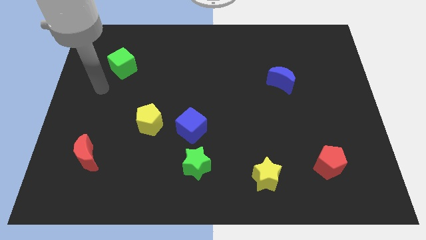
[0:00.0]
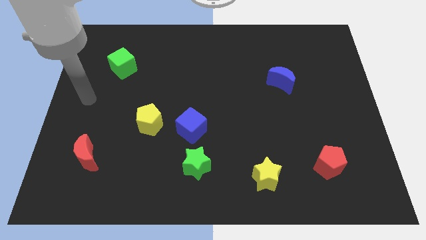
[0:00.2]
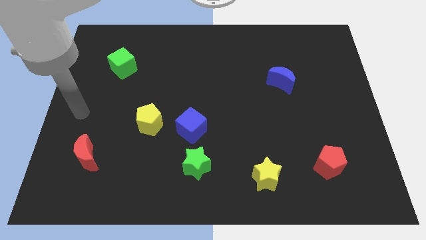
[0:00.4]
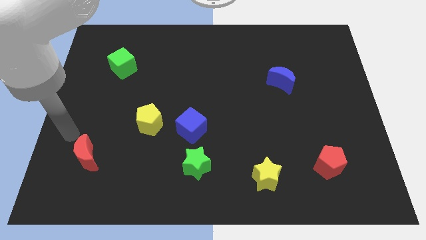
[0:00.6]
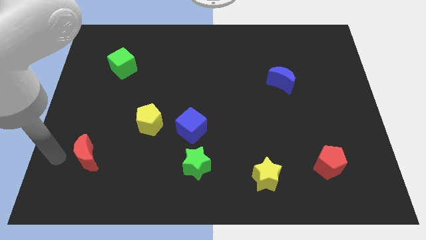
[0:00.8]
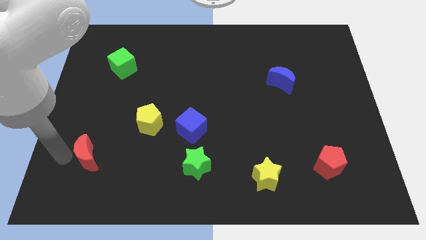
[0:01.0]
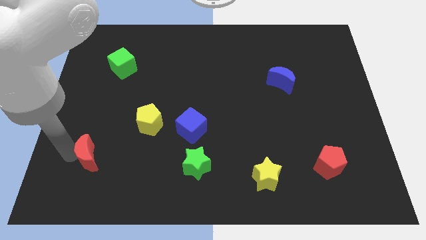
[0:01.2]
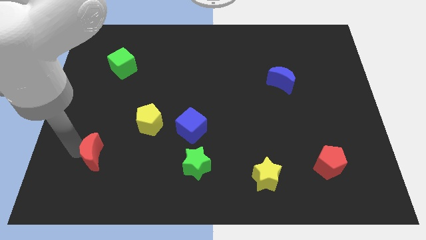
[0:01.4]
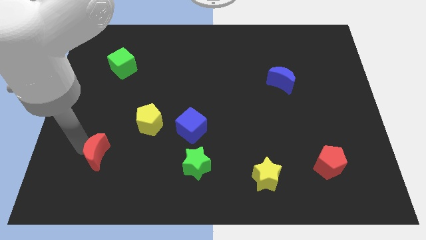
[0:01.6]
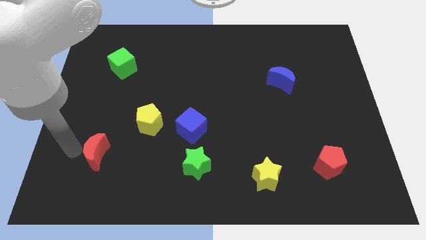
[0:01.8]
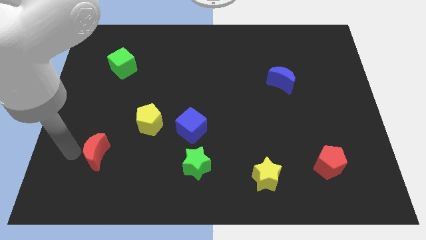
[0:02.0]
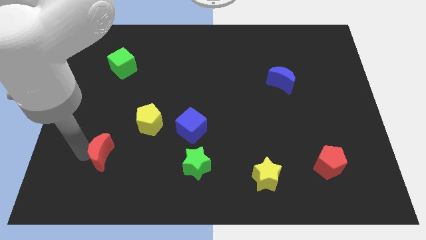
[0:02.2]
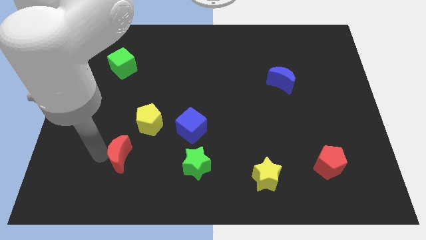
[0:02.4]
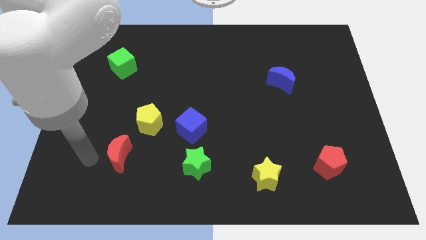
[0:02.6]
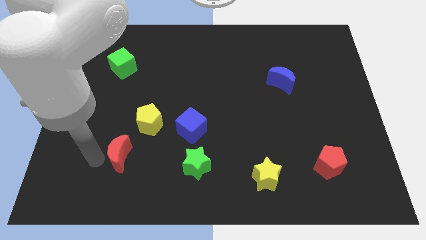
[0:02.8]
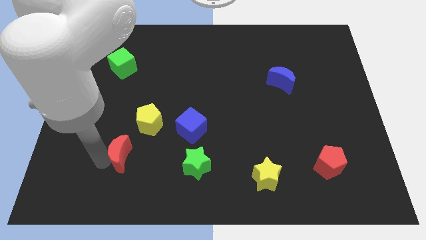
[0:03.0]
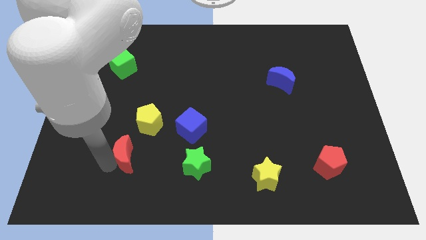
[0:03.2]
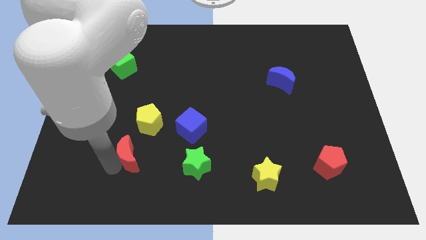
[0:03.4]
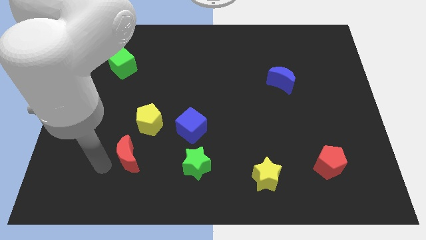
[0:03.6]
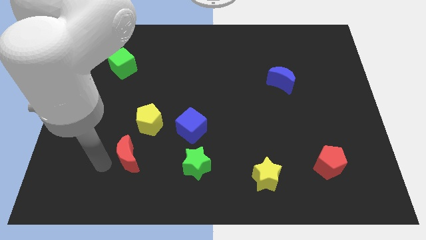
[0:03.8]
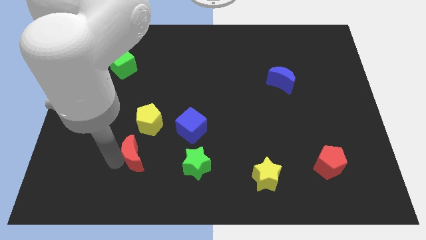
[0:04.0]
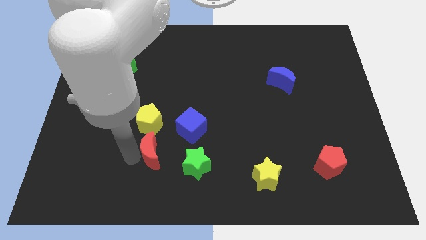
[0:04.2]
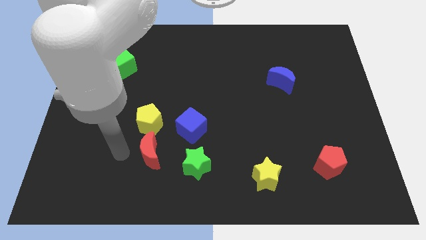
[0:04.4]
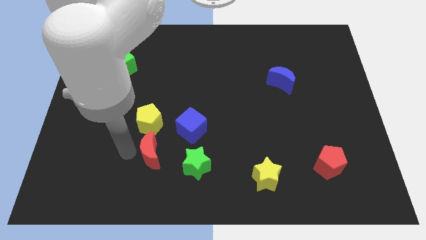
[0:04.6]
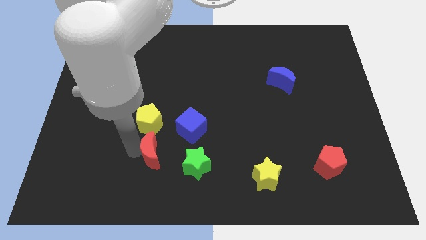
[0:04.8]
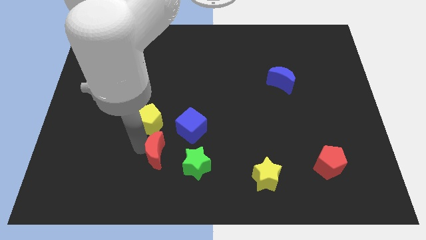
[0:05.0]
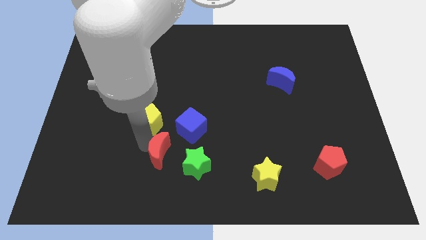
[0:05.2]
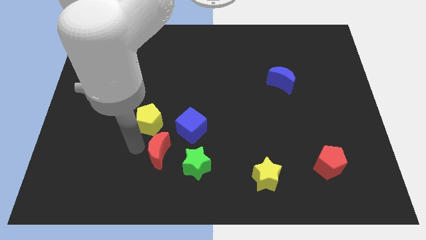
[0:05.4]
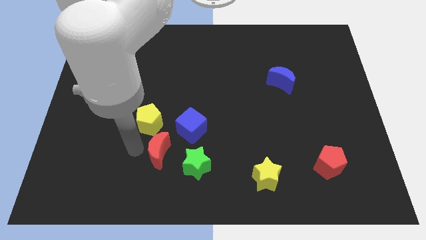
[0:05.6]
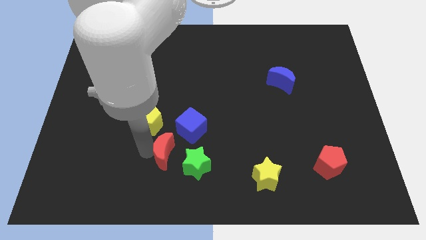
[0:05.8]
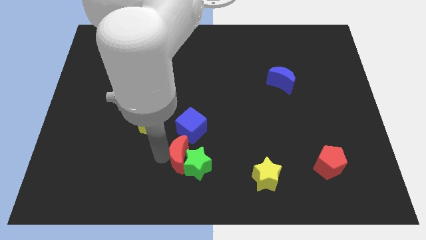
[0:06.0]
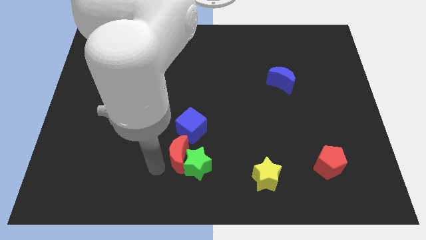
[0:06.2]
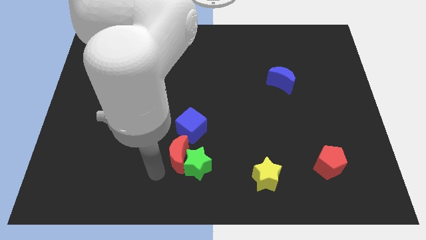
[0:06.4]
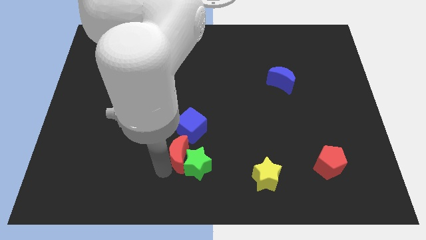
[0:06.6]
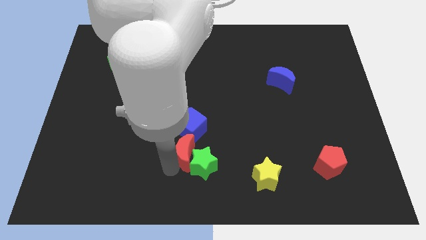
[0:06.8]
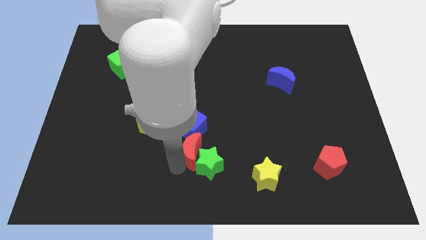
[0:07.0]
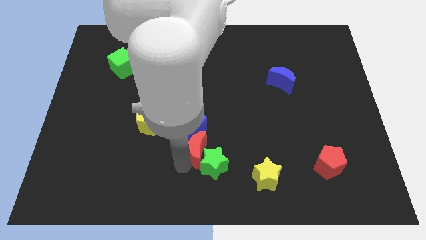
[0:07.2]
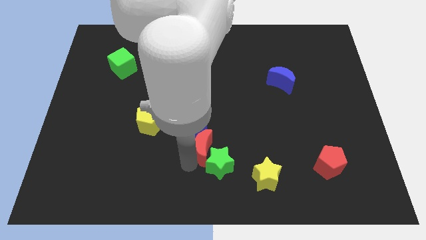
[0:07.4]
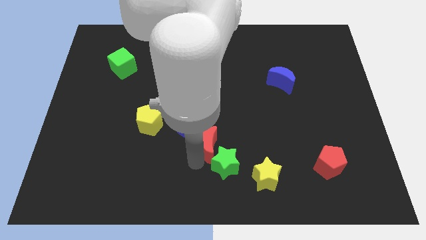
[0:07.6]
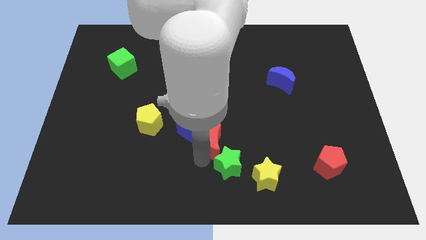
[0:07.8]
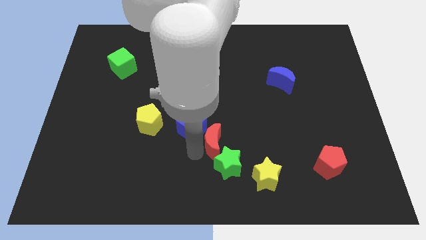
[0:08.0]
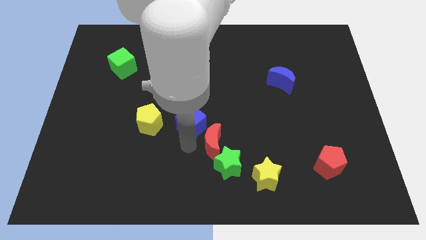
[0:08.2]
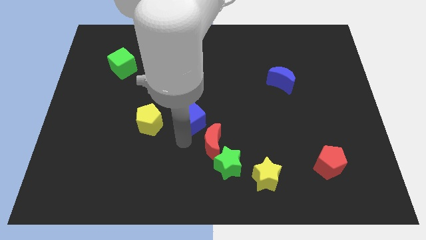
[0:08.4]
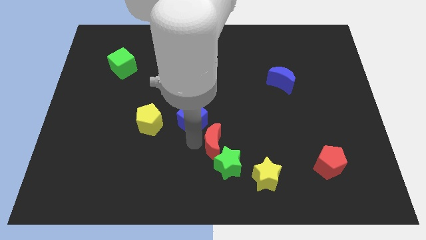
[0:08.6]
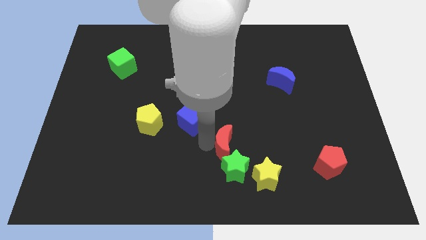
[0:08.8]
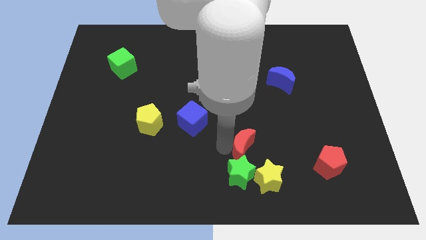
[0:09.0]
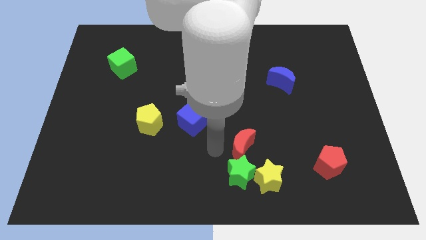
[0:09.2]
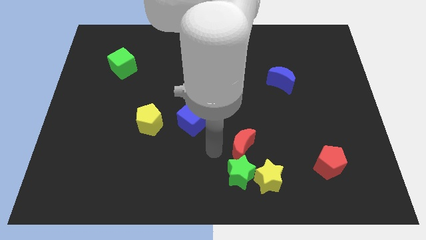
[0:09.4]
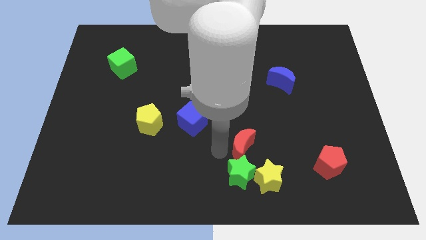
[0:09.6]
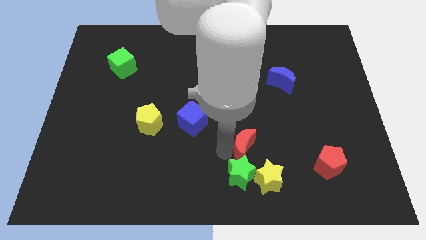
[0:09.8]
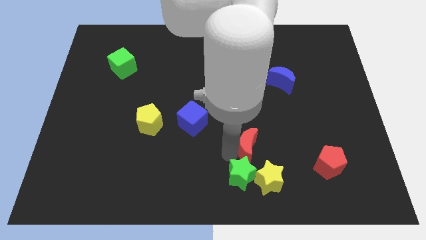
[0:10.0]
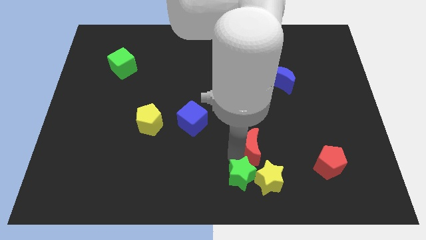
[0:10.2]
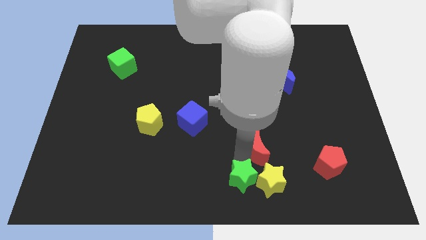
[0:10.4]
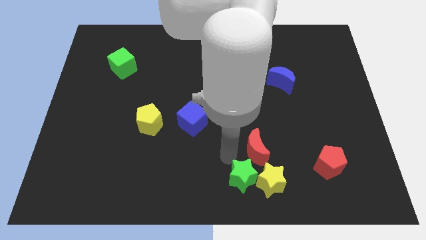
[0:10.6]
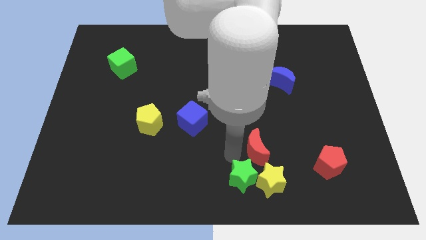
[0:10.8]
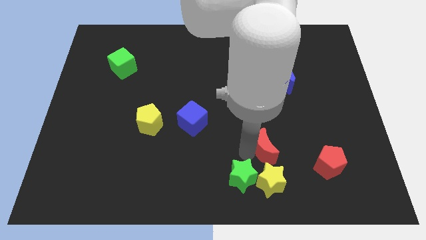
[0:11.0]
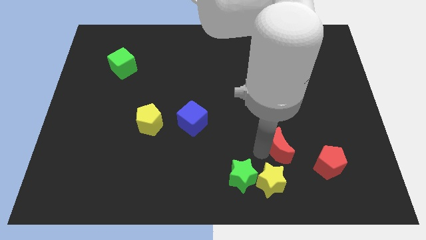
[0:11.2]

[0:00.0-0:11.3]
push the red moon to the top left side of the red pentagon

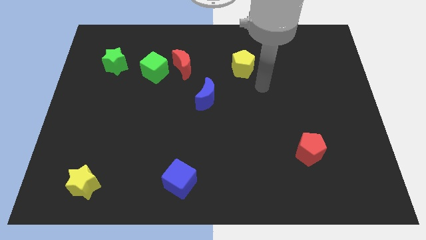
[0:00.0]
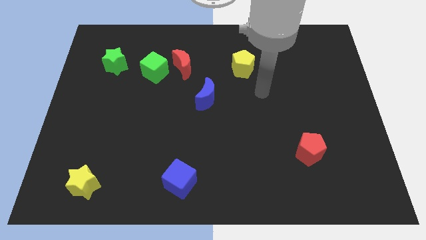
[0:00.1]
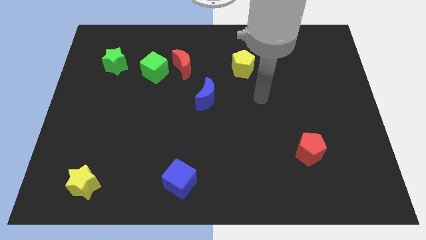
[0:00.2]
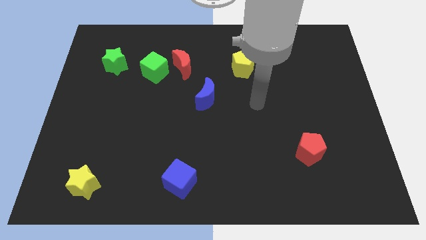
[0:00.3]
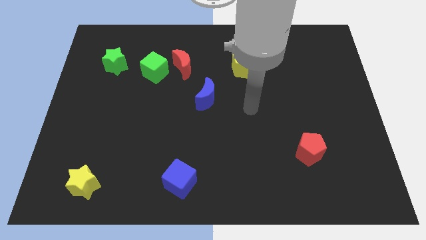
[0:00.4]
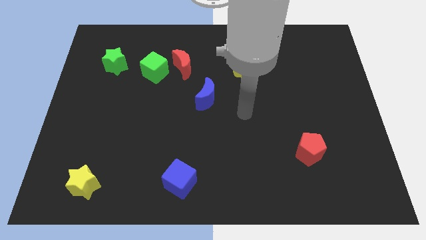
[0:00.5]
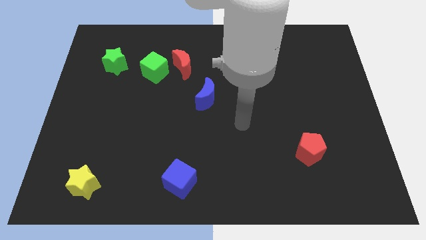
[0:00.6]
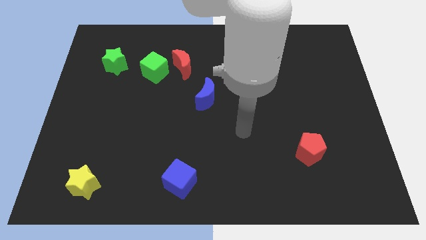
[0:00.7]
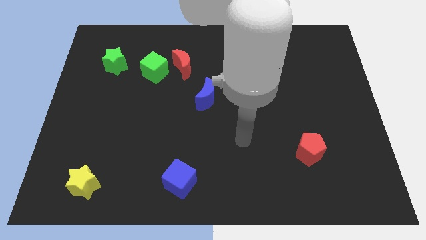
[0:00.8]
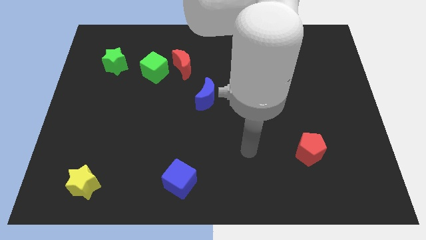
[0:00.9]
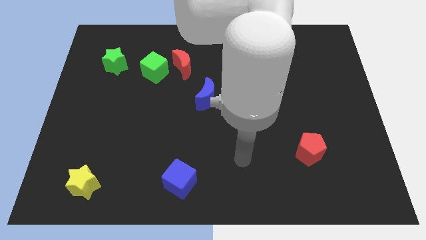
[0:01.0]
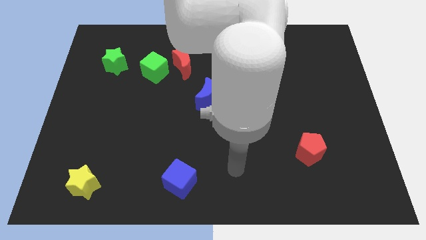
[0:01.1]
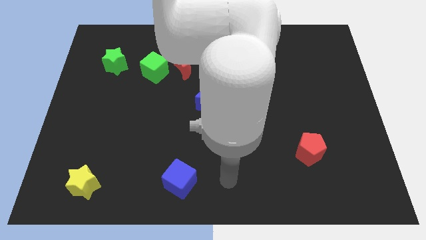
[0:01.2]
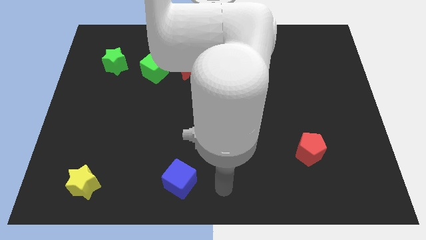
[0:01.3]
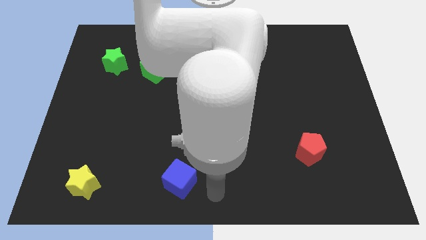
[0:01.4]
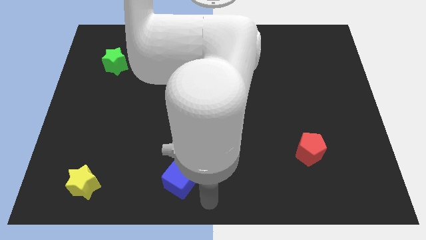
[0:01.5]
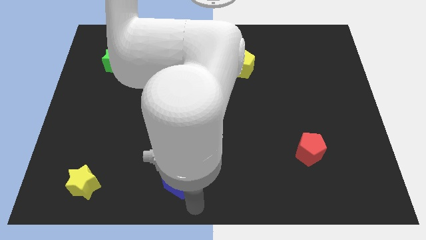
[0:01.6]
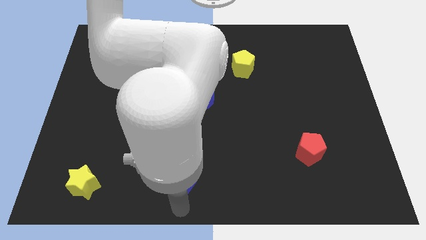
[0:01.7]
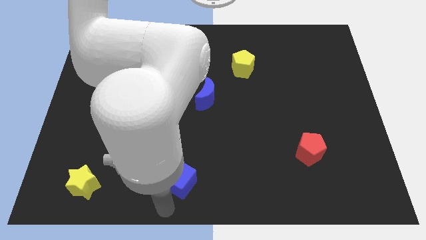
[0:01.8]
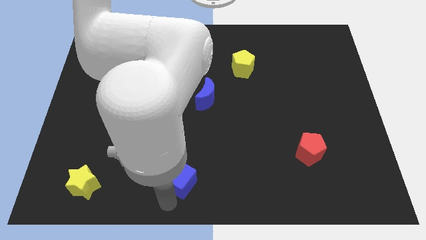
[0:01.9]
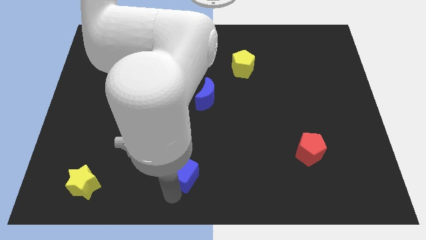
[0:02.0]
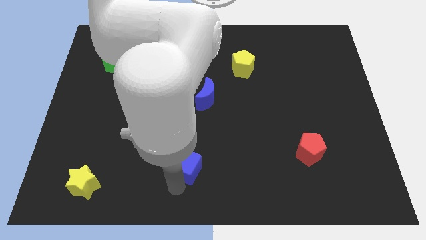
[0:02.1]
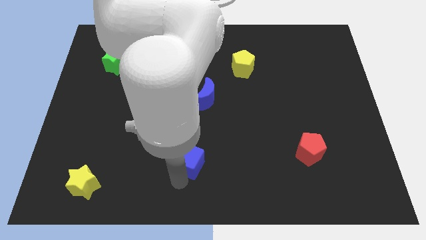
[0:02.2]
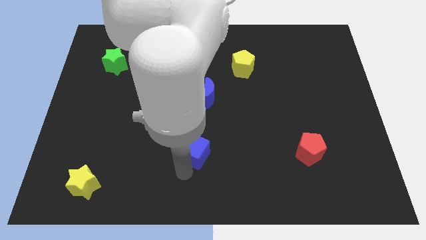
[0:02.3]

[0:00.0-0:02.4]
push the blue cube to the bottom side of the blue moon

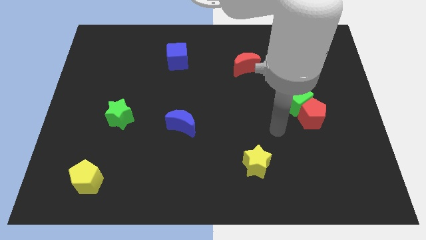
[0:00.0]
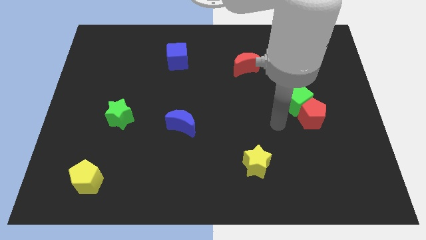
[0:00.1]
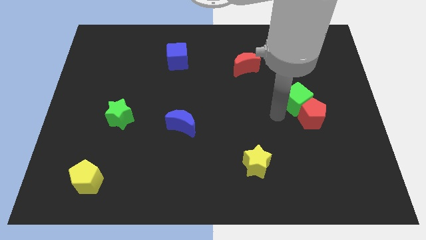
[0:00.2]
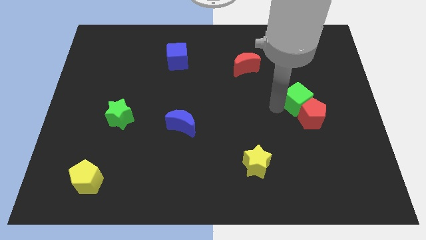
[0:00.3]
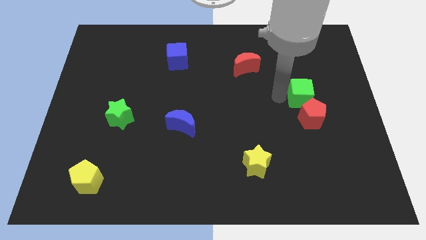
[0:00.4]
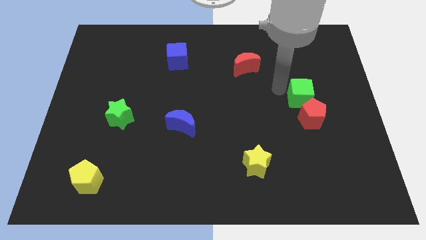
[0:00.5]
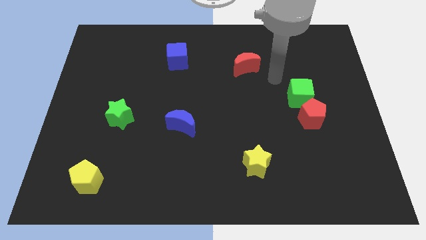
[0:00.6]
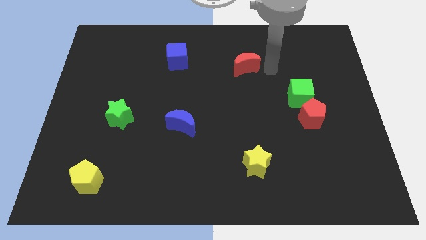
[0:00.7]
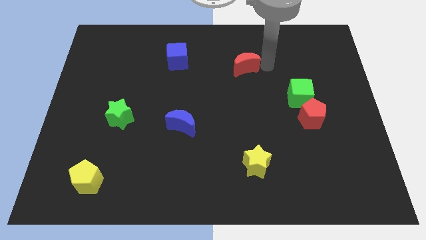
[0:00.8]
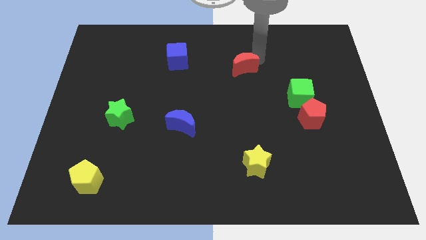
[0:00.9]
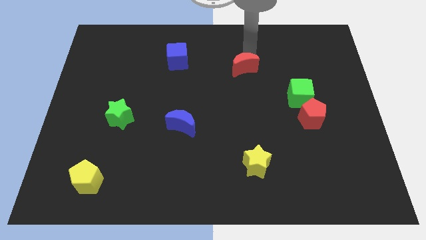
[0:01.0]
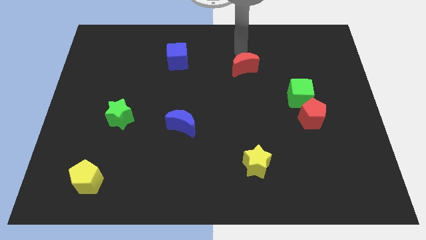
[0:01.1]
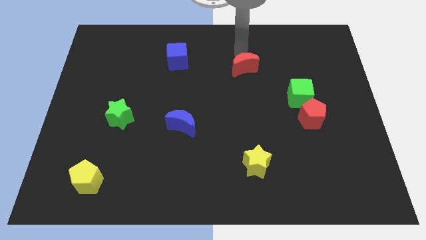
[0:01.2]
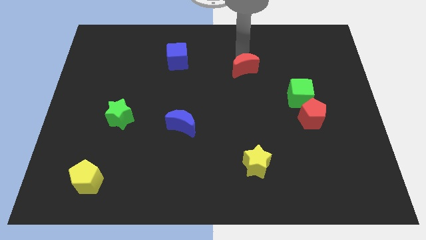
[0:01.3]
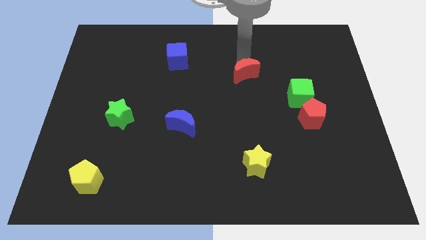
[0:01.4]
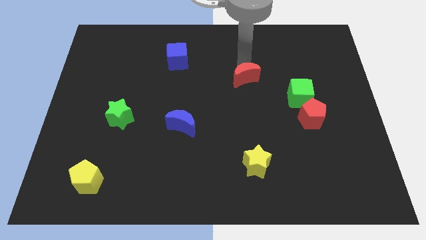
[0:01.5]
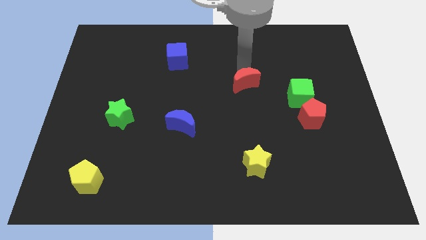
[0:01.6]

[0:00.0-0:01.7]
move the red moon left of the green cube
